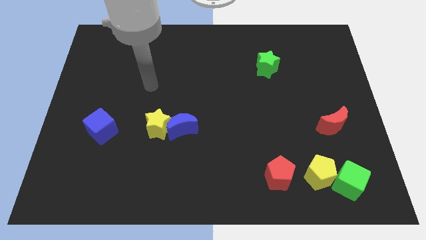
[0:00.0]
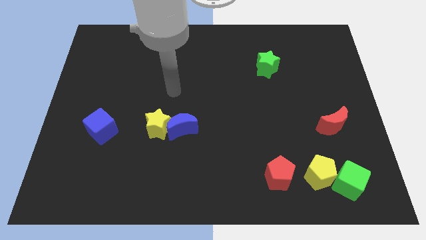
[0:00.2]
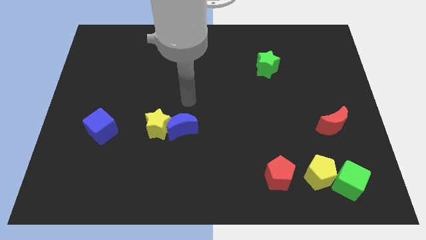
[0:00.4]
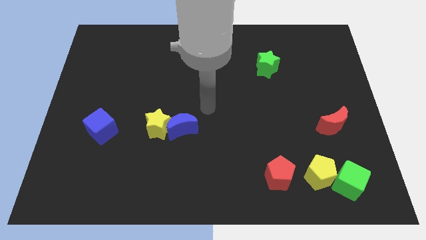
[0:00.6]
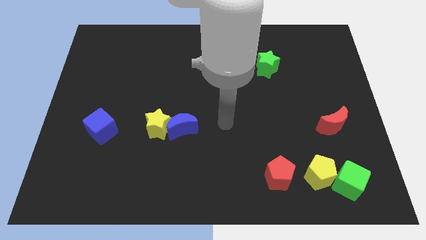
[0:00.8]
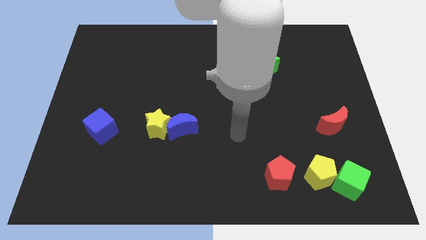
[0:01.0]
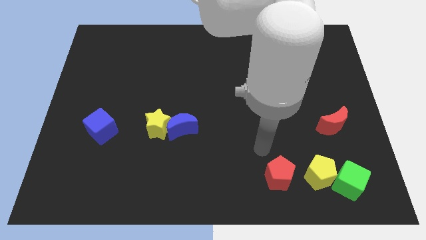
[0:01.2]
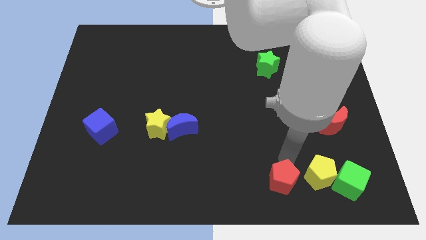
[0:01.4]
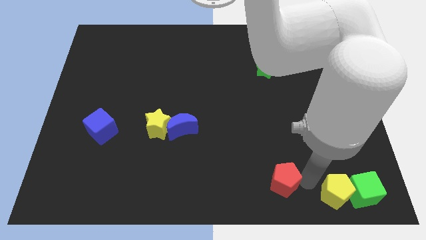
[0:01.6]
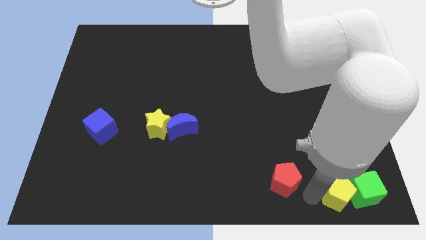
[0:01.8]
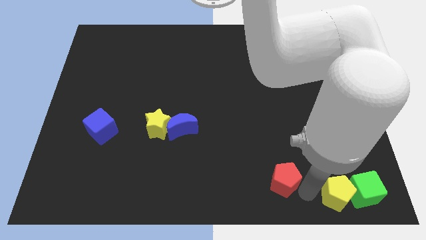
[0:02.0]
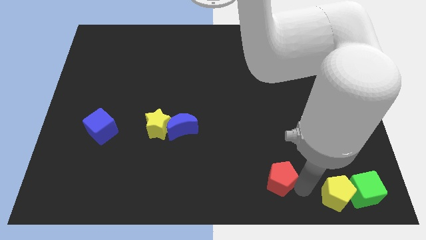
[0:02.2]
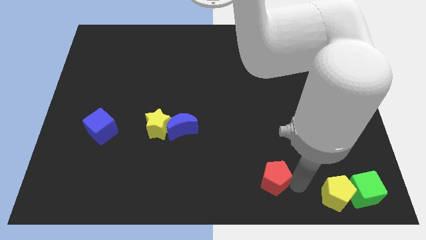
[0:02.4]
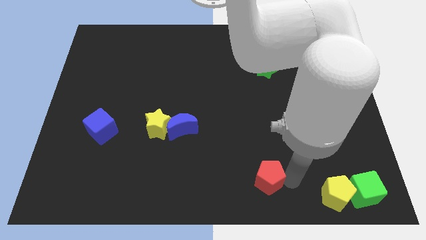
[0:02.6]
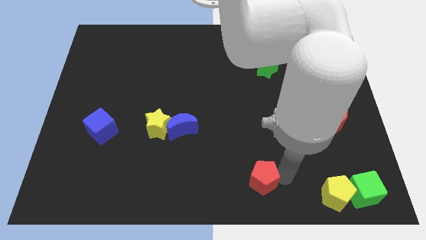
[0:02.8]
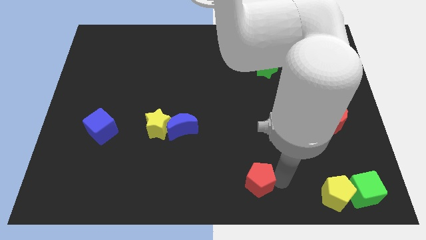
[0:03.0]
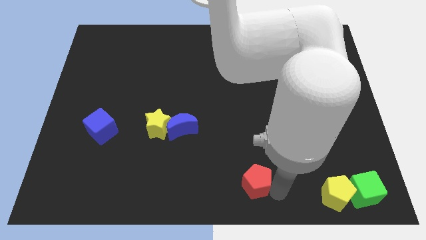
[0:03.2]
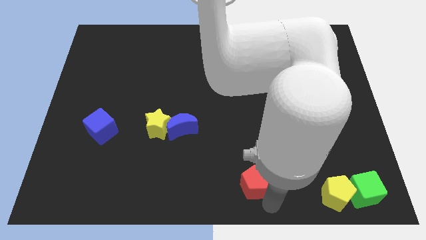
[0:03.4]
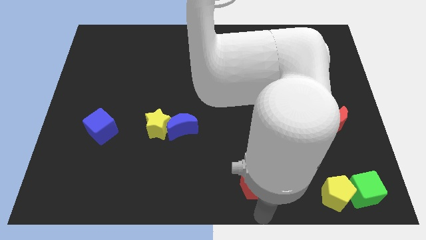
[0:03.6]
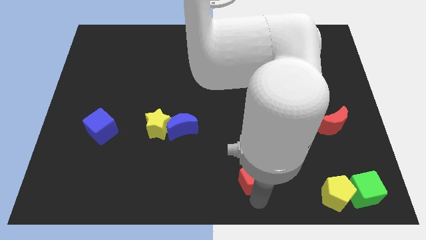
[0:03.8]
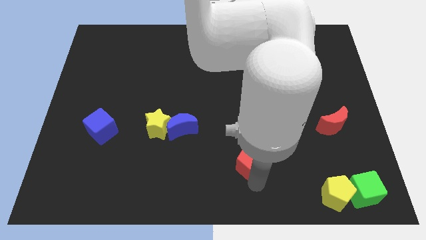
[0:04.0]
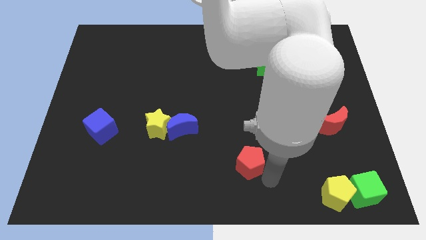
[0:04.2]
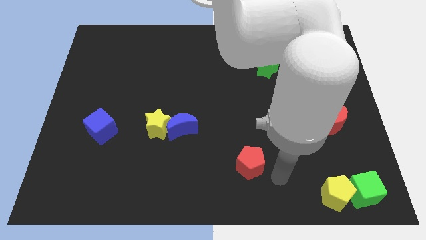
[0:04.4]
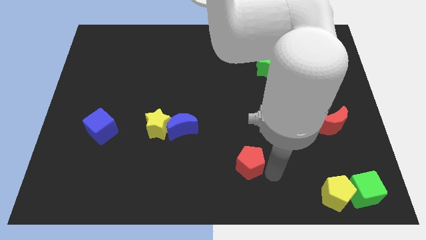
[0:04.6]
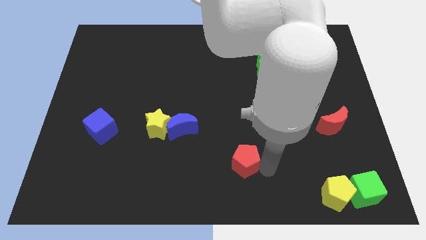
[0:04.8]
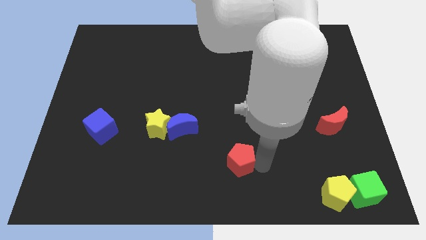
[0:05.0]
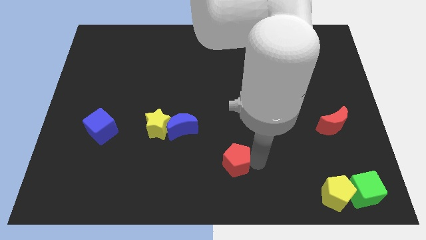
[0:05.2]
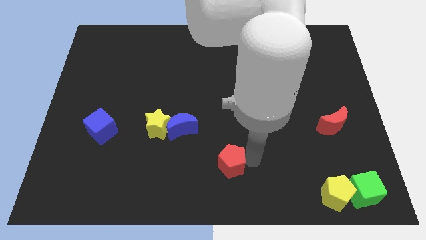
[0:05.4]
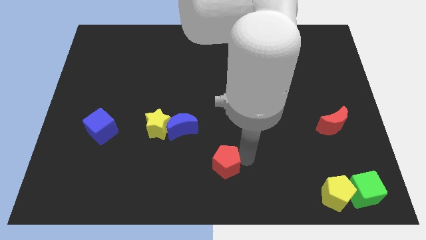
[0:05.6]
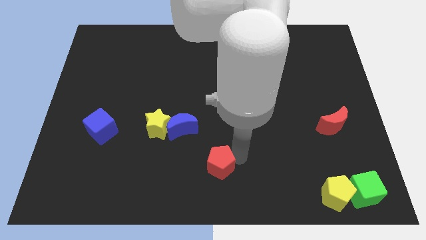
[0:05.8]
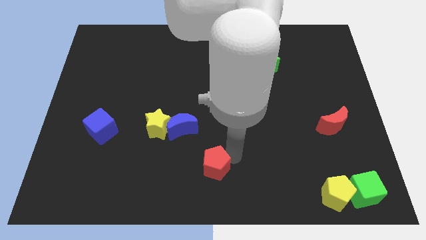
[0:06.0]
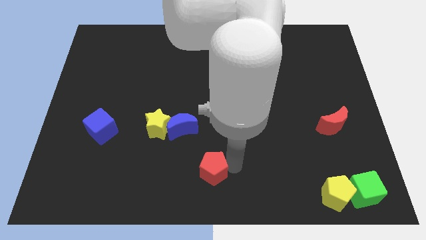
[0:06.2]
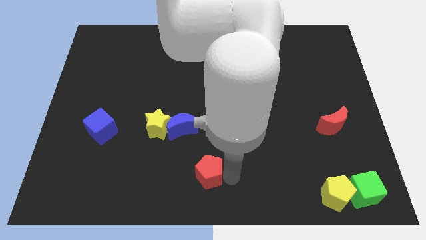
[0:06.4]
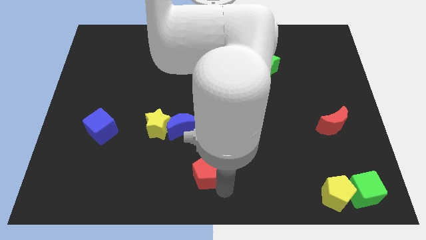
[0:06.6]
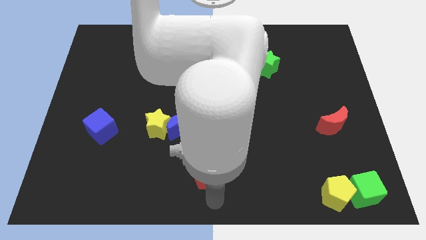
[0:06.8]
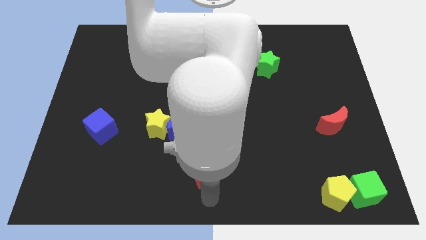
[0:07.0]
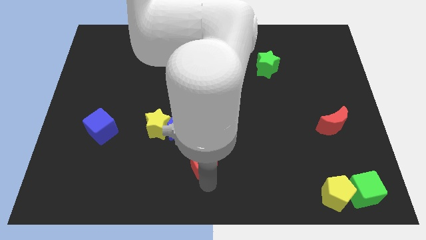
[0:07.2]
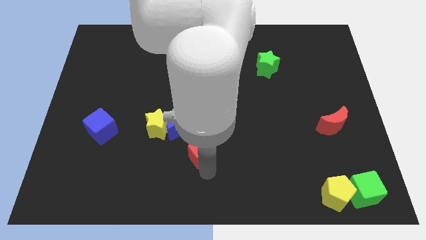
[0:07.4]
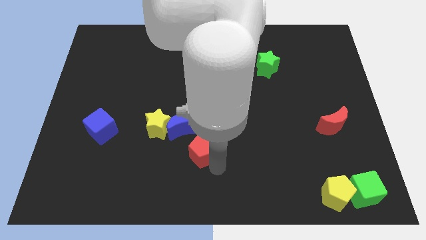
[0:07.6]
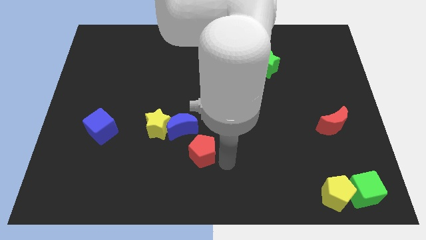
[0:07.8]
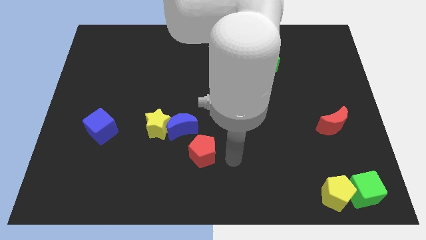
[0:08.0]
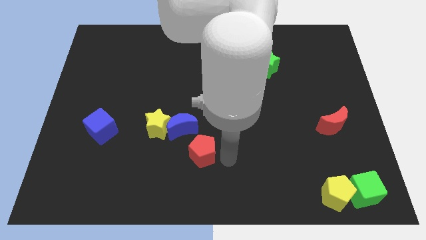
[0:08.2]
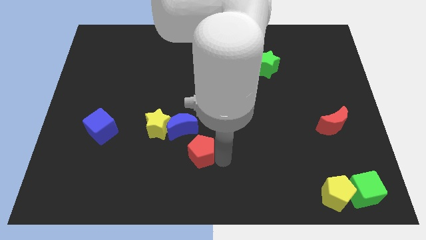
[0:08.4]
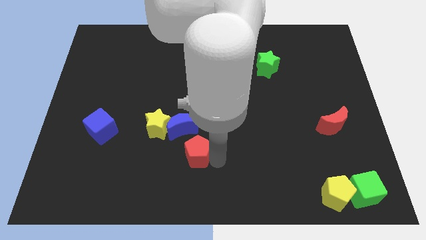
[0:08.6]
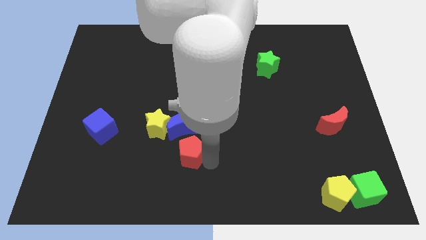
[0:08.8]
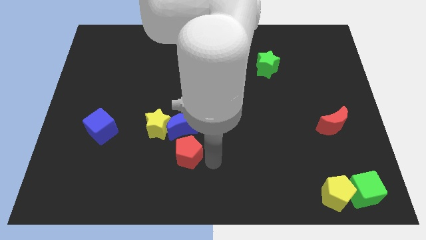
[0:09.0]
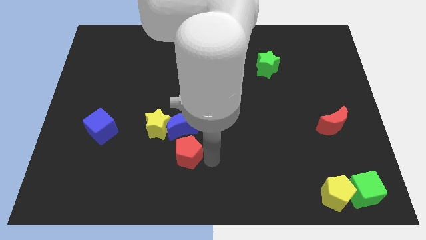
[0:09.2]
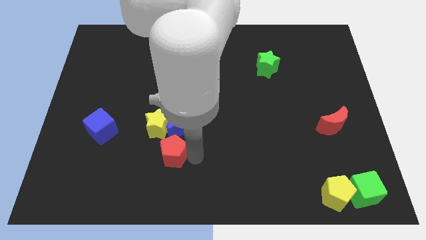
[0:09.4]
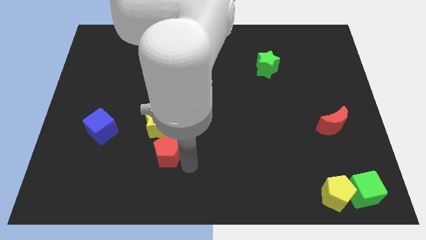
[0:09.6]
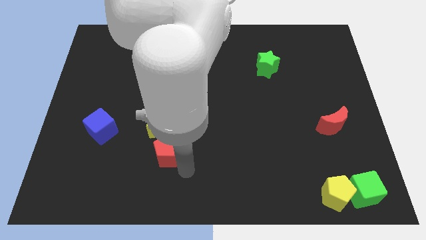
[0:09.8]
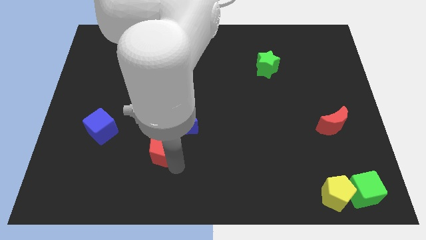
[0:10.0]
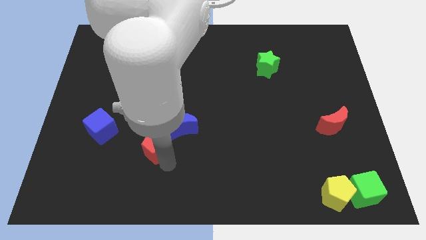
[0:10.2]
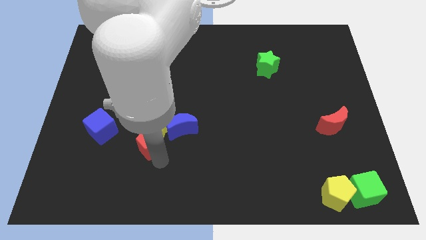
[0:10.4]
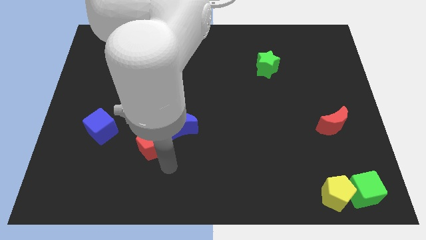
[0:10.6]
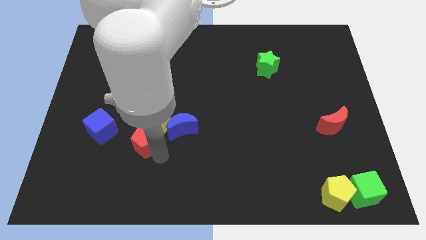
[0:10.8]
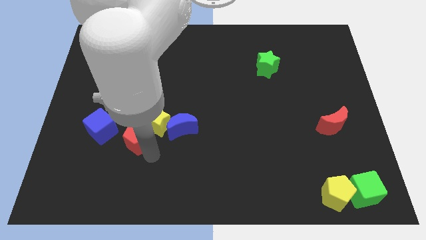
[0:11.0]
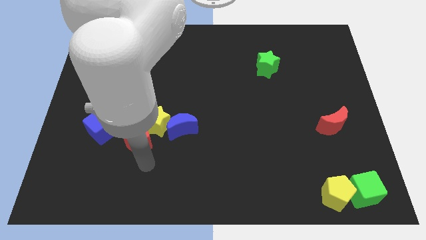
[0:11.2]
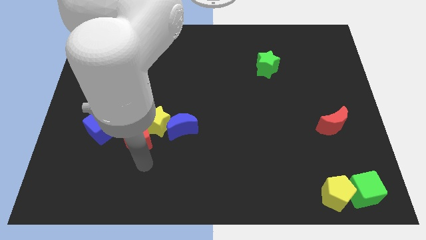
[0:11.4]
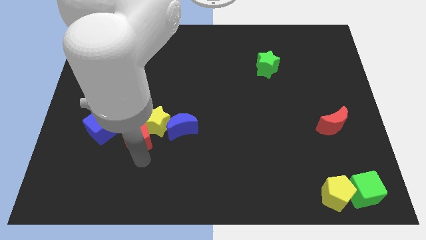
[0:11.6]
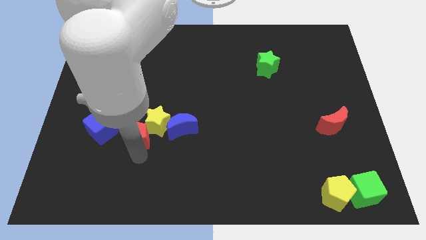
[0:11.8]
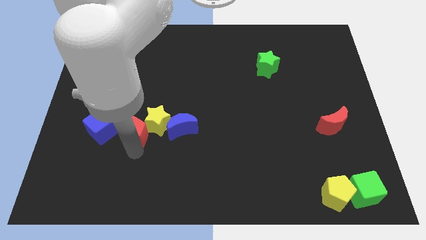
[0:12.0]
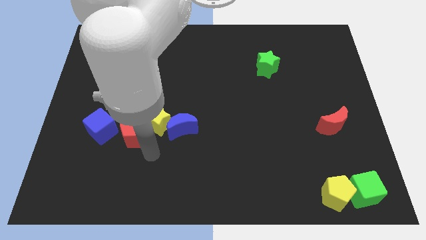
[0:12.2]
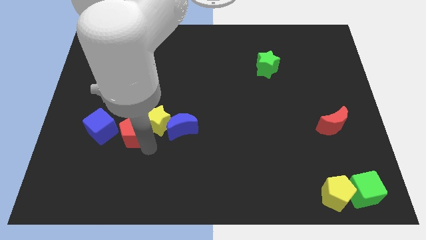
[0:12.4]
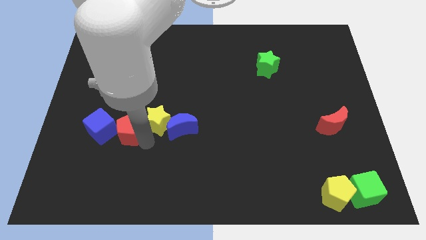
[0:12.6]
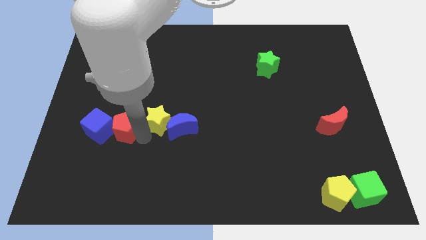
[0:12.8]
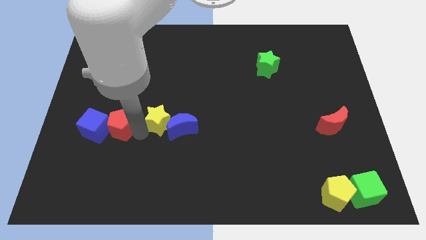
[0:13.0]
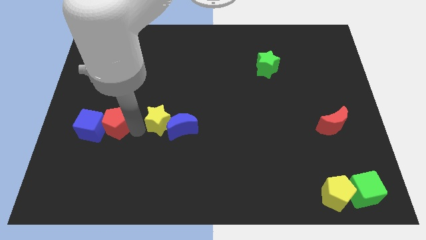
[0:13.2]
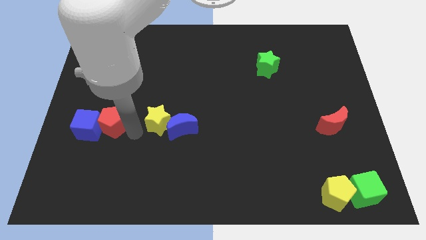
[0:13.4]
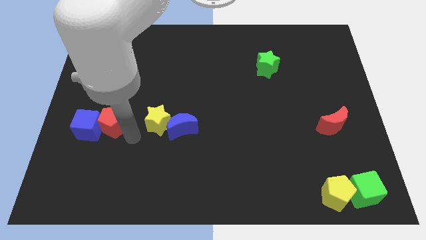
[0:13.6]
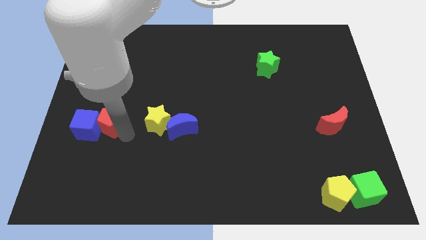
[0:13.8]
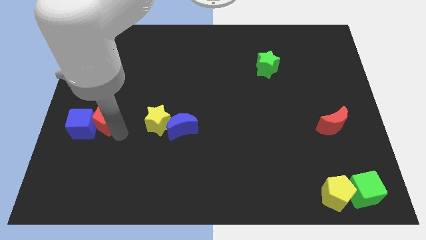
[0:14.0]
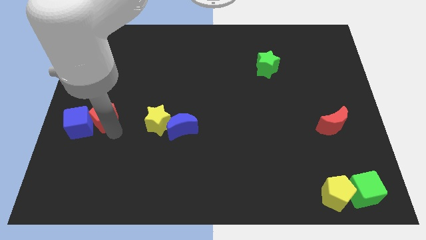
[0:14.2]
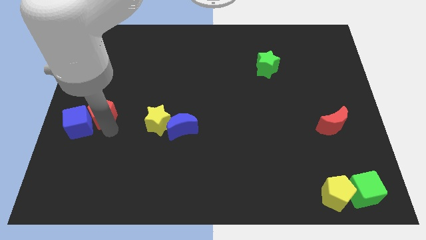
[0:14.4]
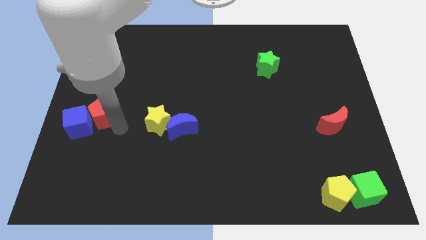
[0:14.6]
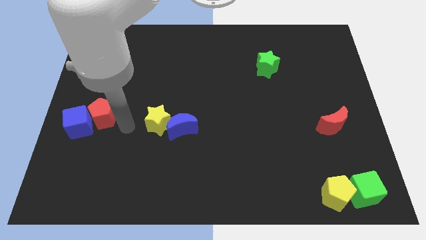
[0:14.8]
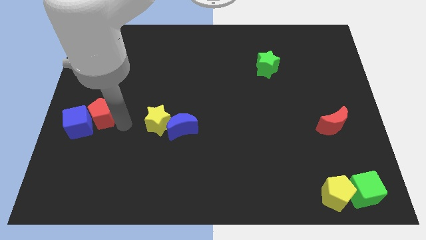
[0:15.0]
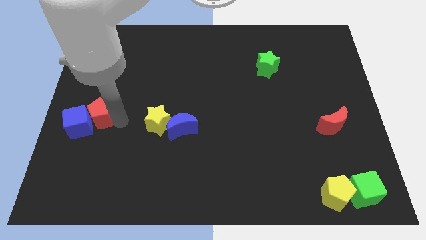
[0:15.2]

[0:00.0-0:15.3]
put the red pentagon to the left side
